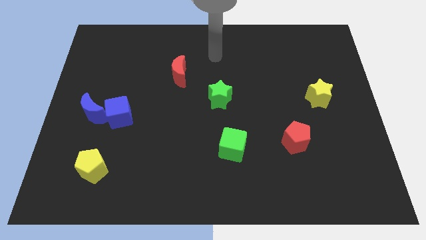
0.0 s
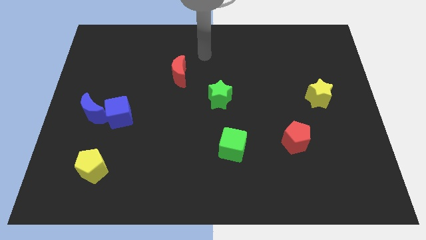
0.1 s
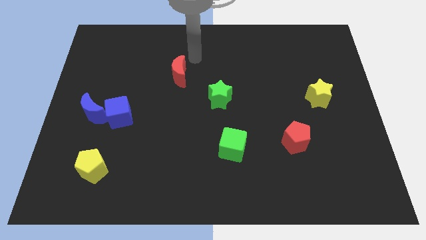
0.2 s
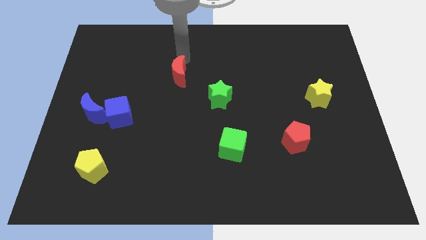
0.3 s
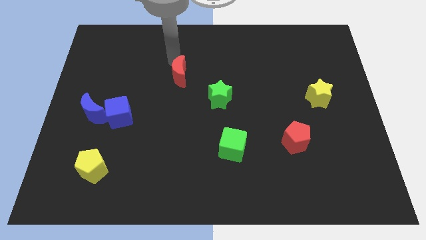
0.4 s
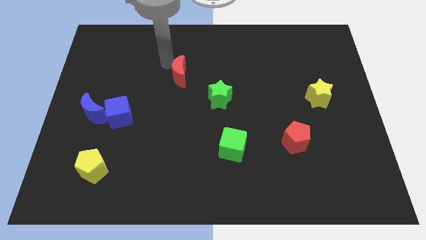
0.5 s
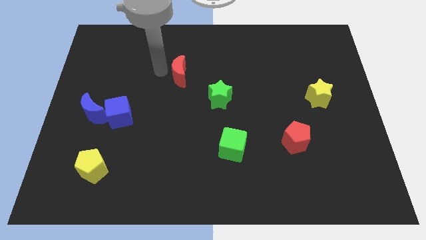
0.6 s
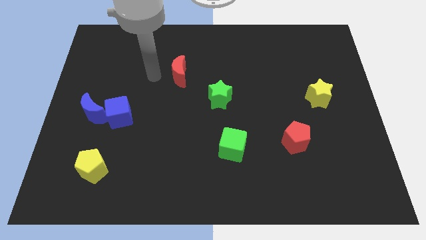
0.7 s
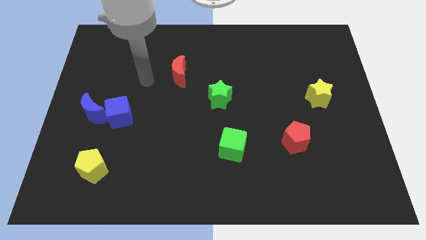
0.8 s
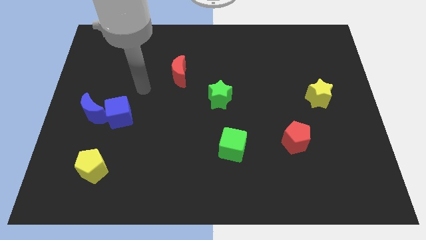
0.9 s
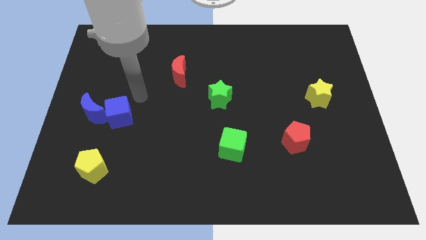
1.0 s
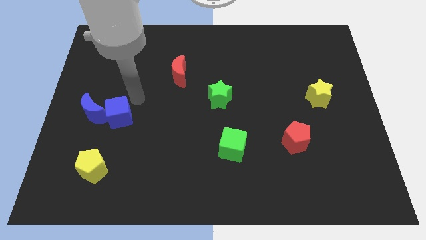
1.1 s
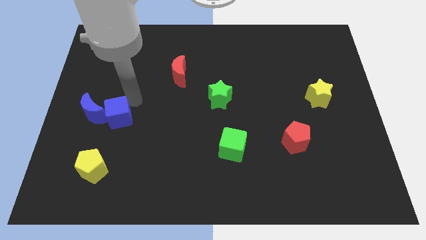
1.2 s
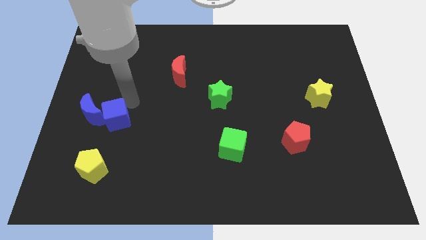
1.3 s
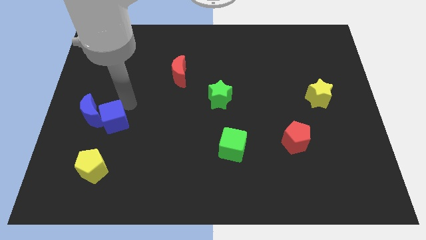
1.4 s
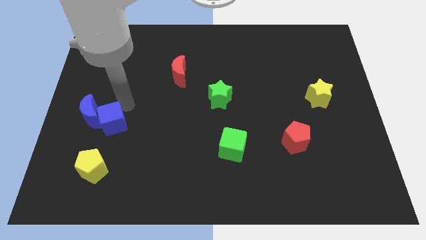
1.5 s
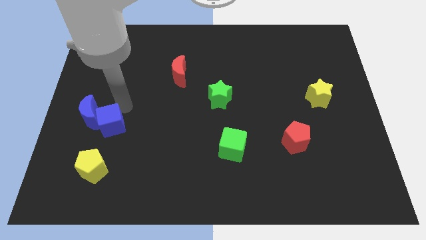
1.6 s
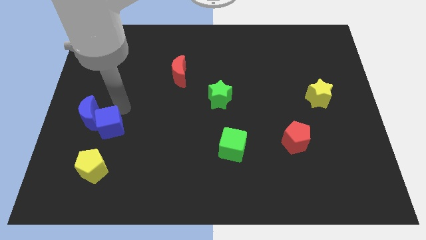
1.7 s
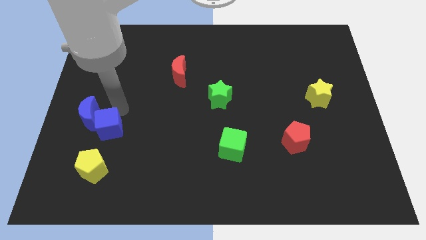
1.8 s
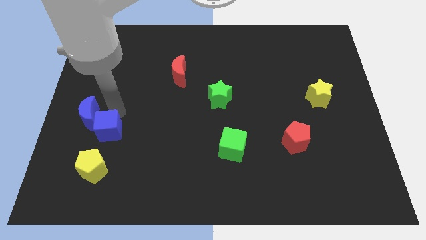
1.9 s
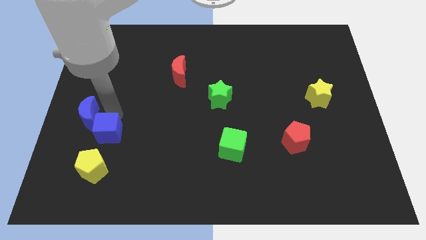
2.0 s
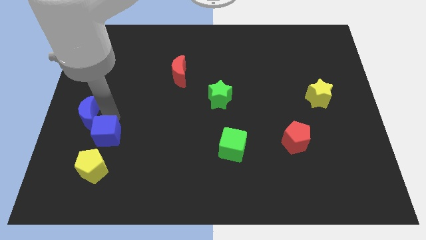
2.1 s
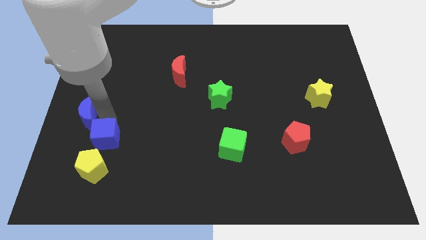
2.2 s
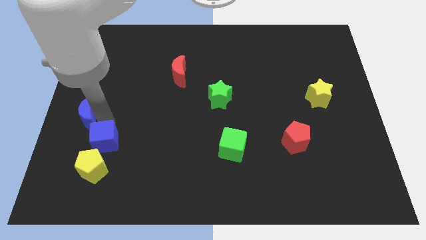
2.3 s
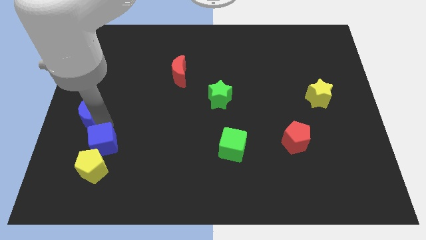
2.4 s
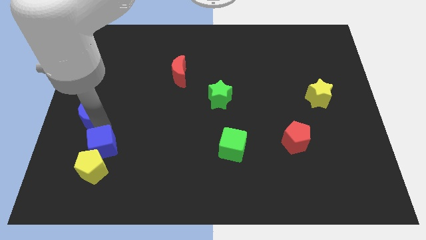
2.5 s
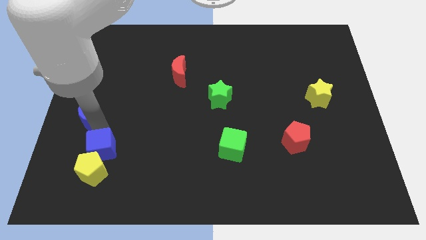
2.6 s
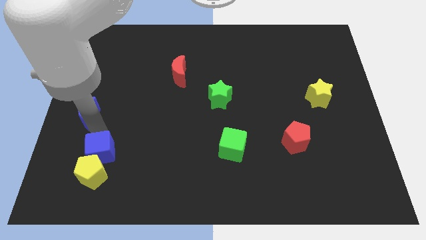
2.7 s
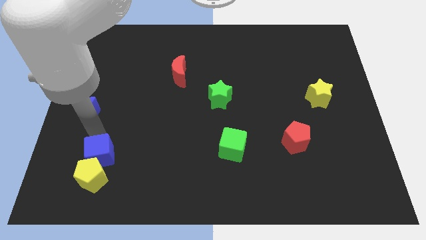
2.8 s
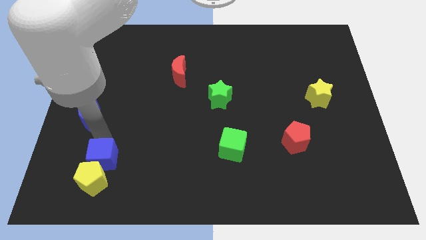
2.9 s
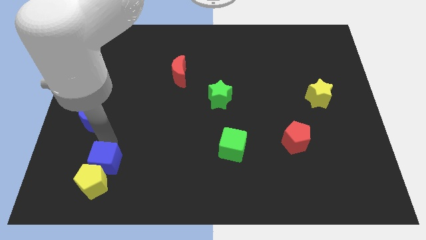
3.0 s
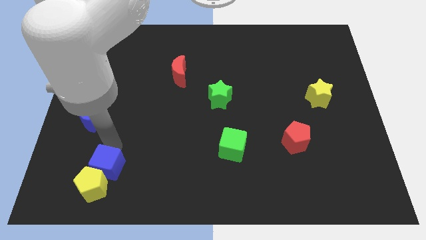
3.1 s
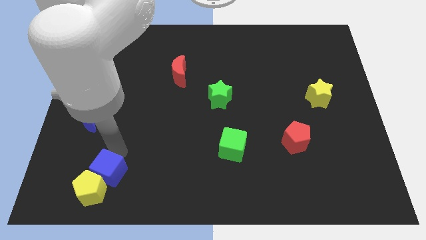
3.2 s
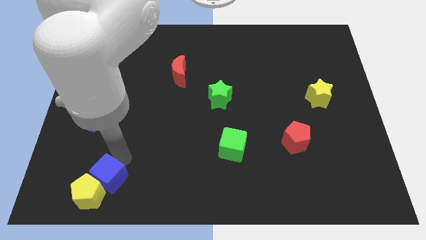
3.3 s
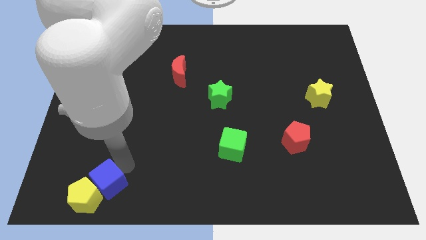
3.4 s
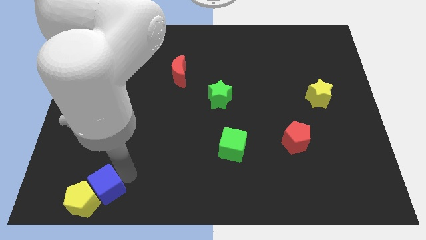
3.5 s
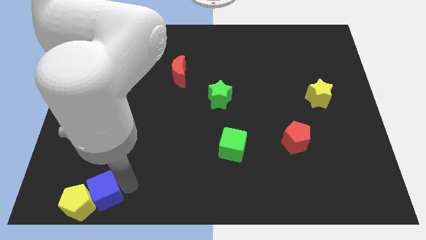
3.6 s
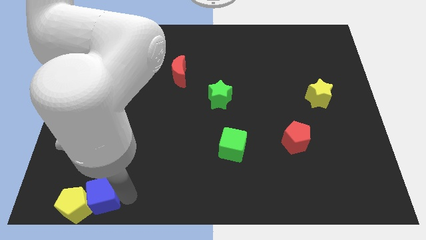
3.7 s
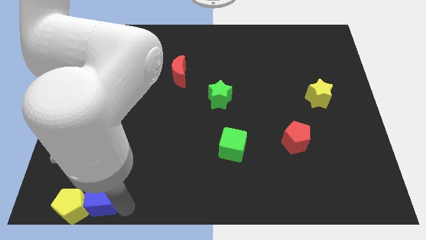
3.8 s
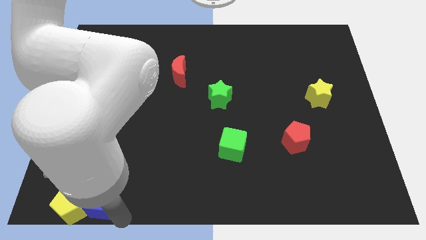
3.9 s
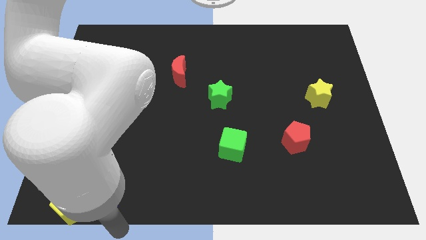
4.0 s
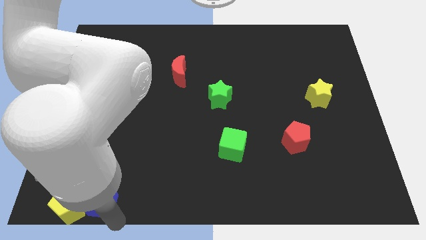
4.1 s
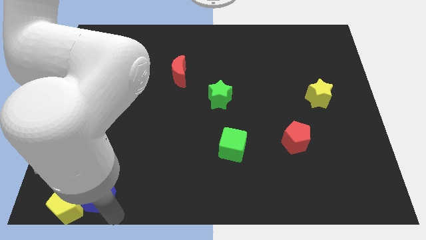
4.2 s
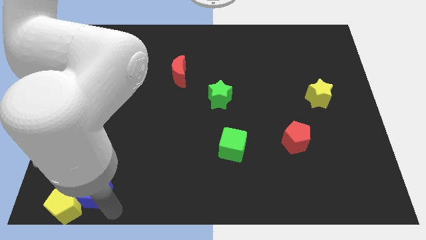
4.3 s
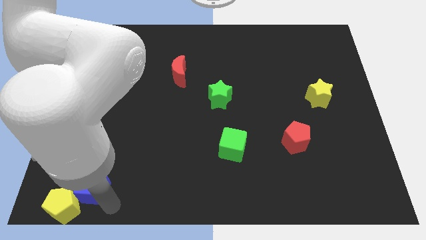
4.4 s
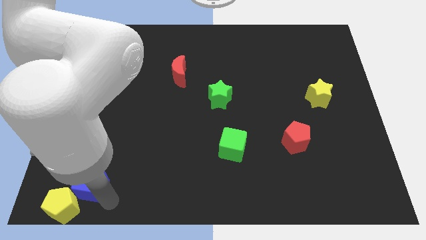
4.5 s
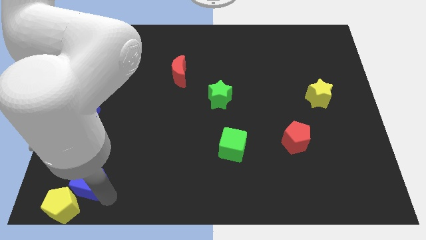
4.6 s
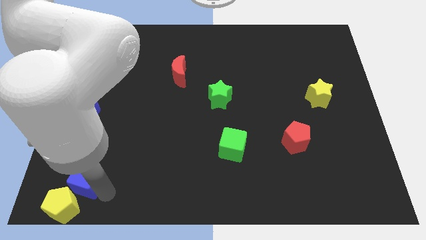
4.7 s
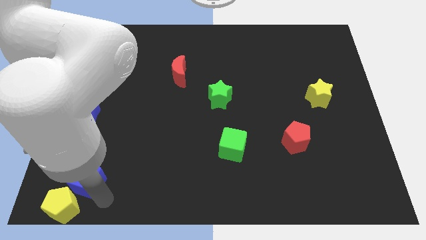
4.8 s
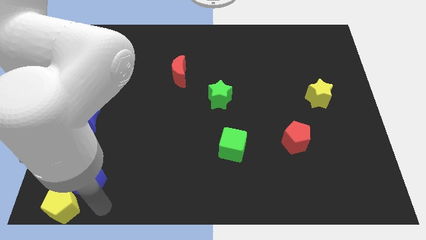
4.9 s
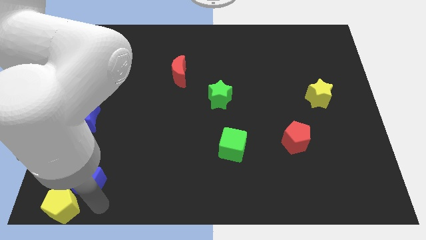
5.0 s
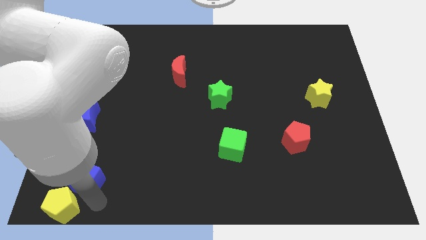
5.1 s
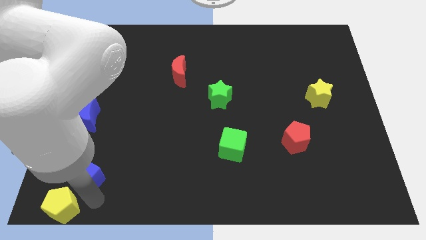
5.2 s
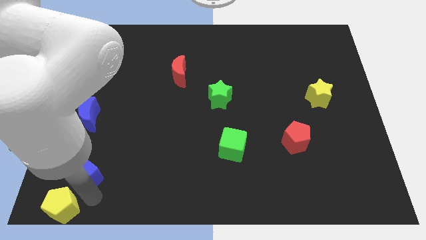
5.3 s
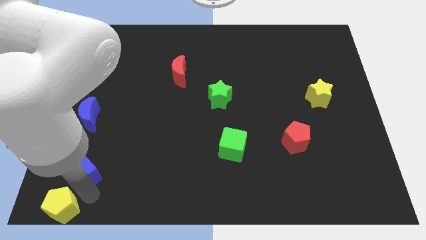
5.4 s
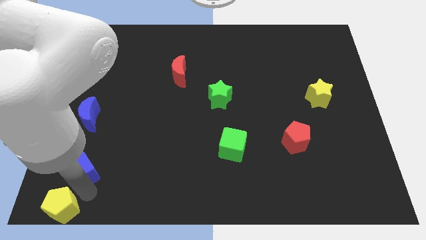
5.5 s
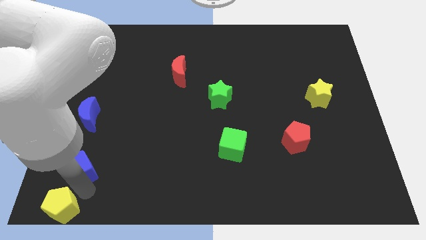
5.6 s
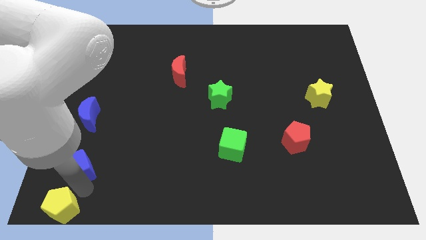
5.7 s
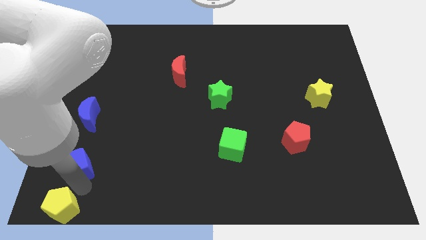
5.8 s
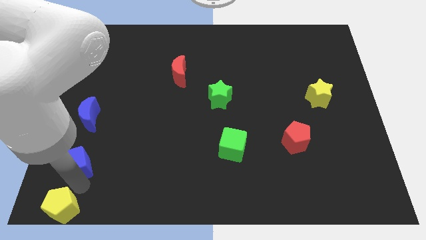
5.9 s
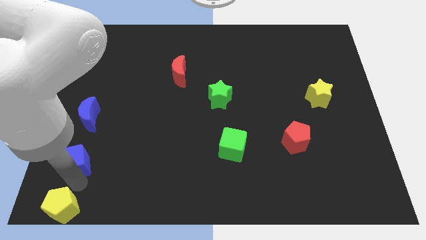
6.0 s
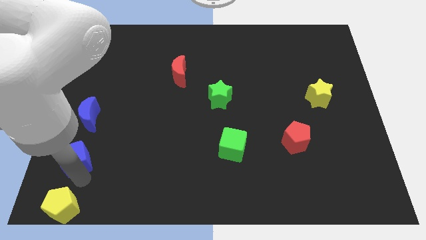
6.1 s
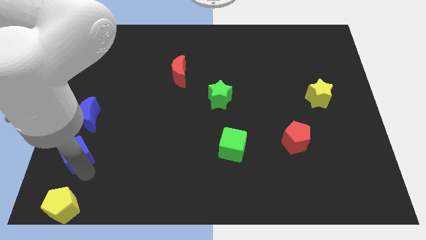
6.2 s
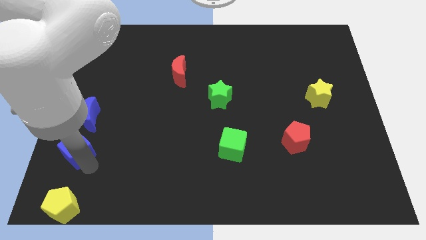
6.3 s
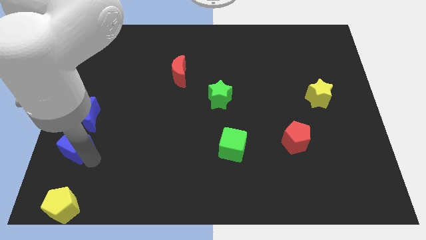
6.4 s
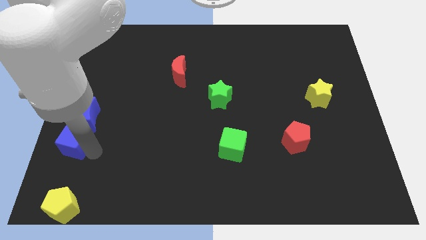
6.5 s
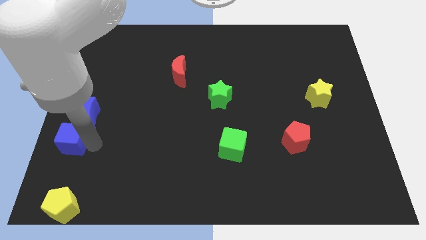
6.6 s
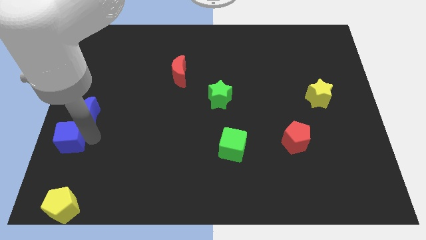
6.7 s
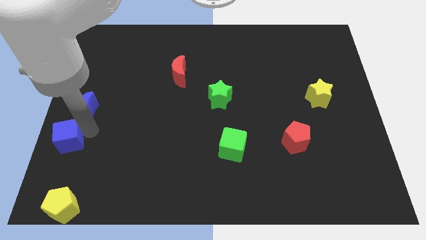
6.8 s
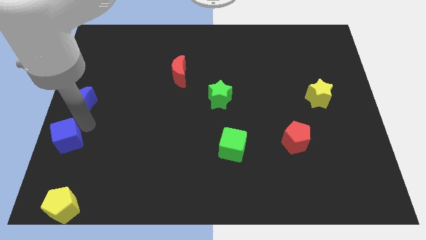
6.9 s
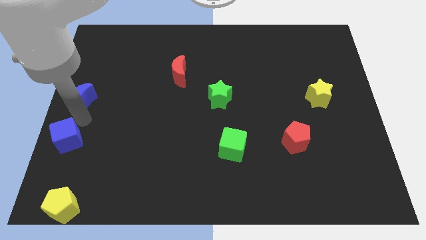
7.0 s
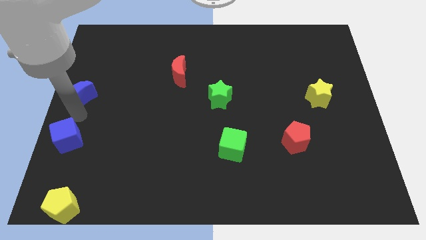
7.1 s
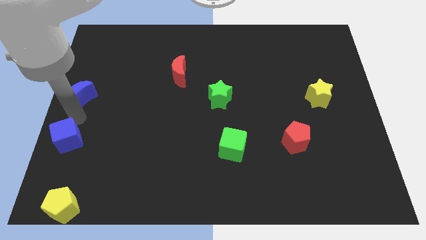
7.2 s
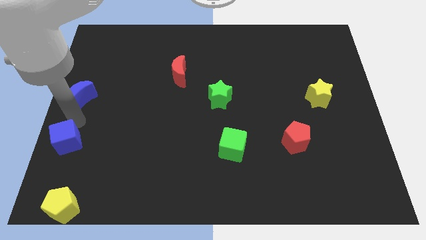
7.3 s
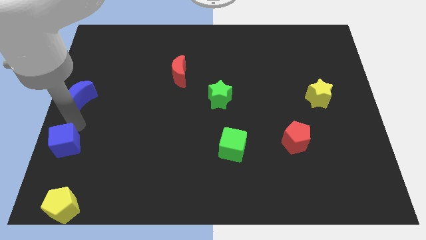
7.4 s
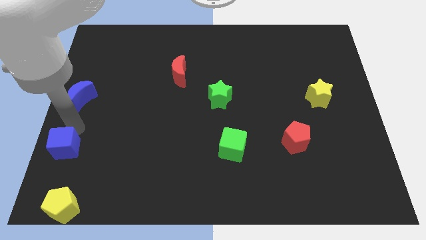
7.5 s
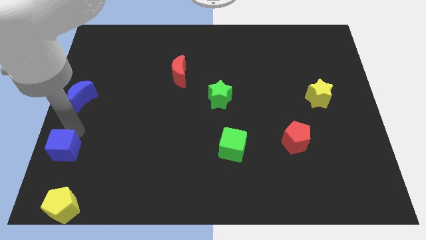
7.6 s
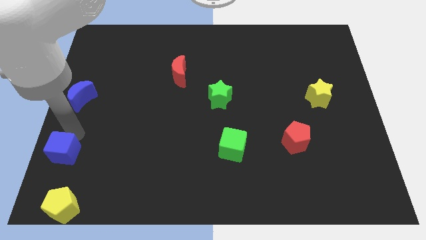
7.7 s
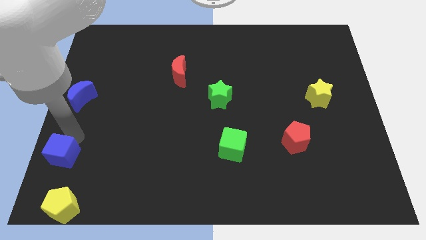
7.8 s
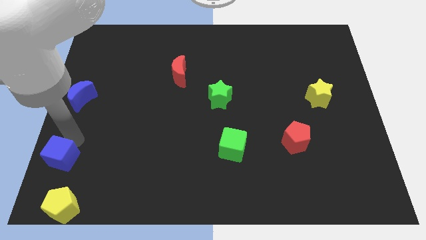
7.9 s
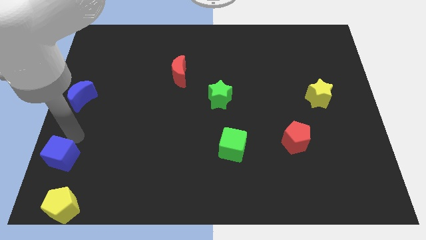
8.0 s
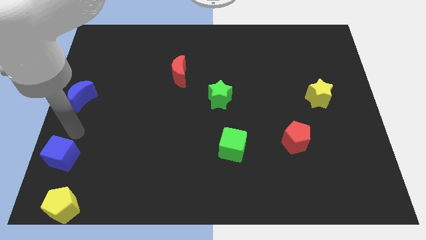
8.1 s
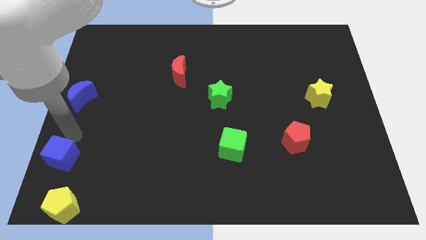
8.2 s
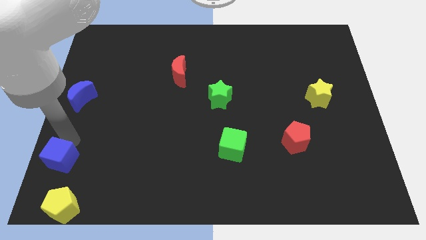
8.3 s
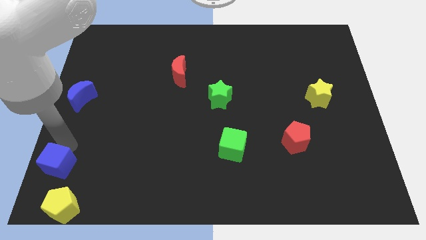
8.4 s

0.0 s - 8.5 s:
slide the blue cube to the bottom left of the board
